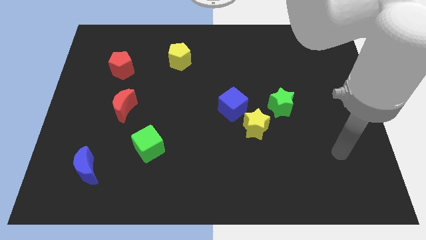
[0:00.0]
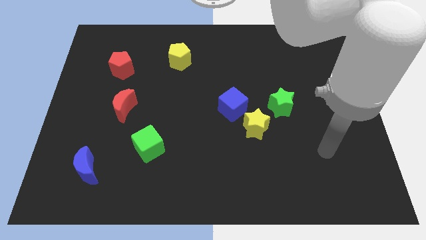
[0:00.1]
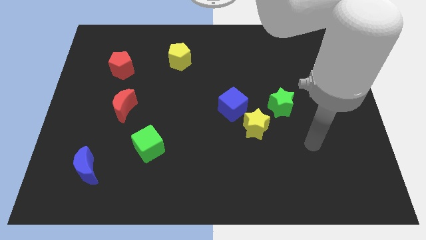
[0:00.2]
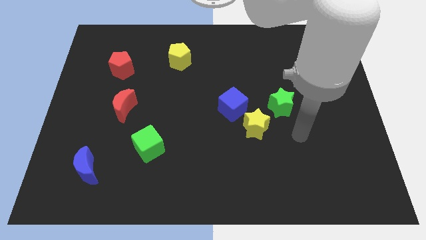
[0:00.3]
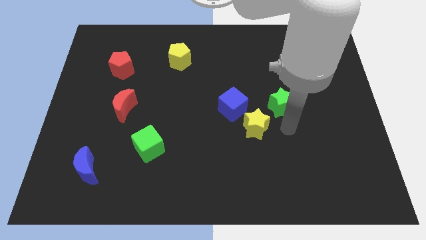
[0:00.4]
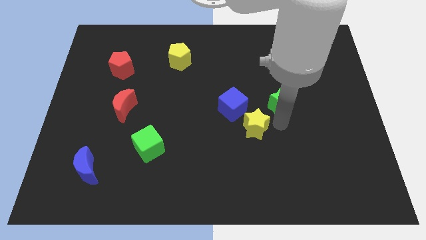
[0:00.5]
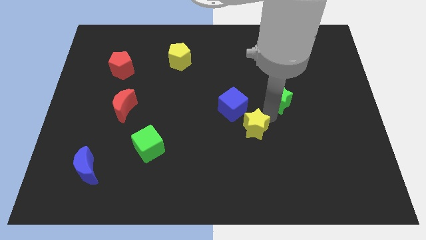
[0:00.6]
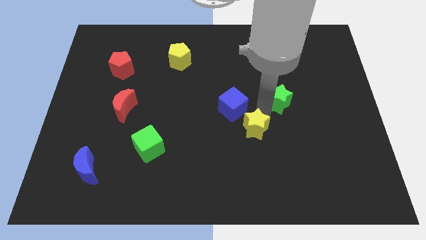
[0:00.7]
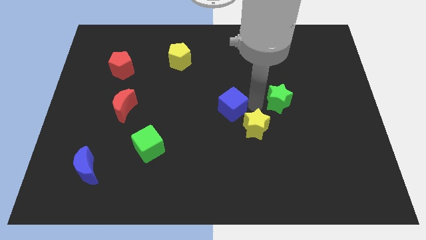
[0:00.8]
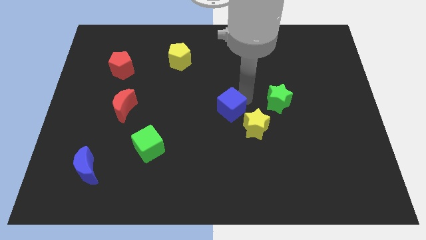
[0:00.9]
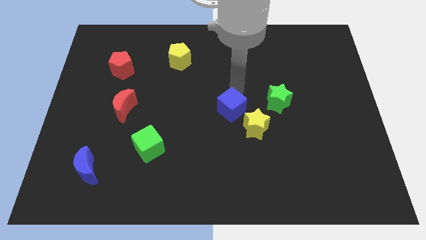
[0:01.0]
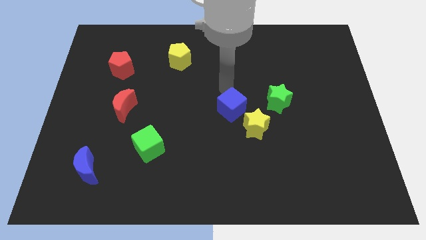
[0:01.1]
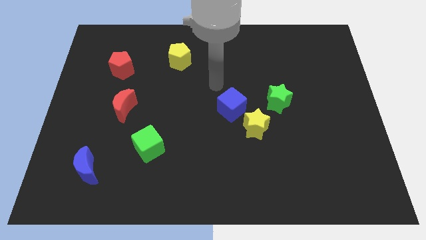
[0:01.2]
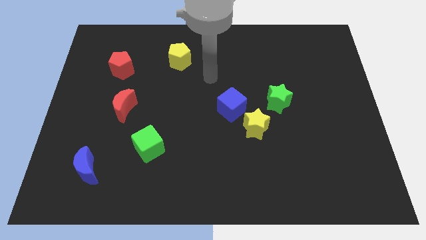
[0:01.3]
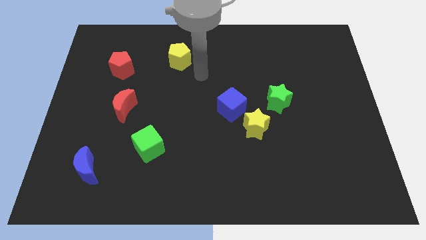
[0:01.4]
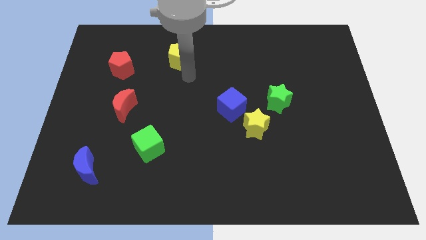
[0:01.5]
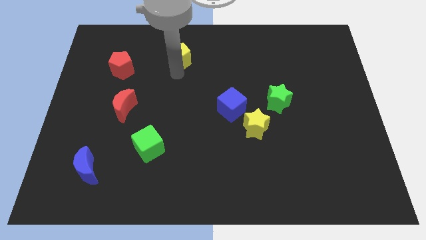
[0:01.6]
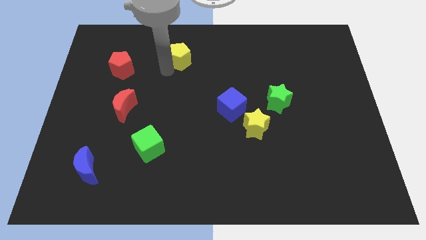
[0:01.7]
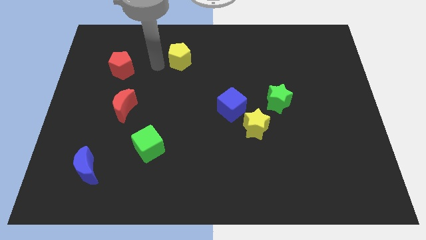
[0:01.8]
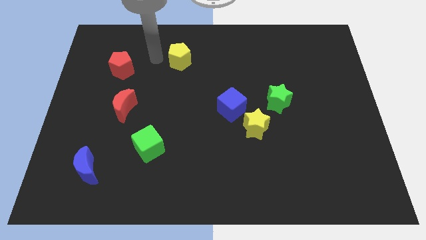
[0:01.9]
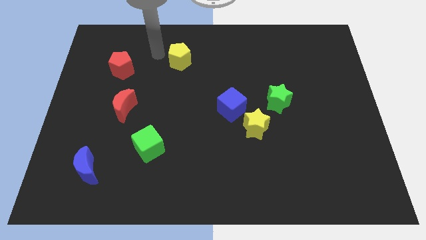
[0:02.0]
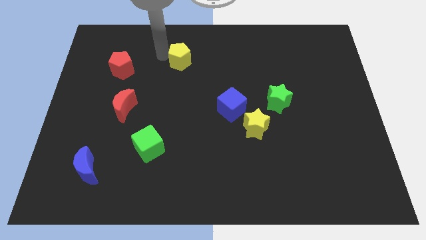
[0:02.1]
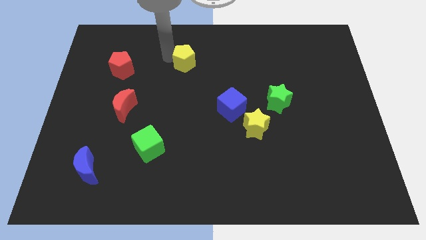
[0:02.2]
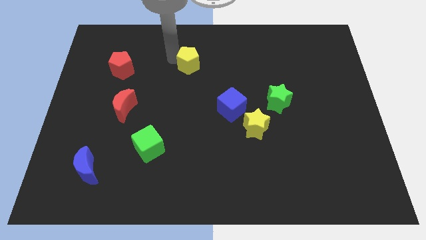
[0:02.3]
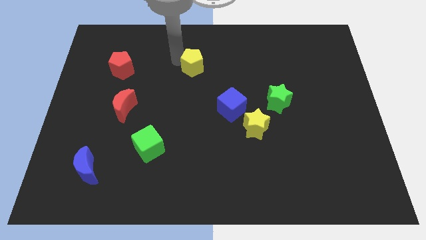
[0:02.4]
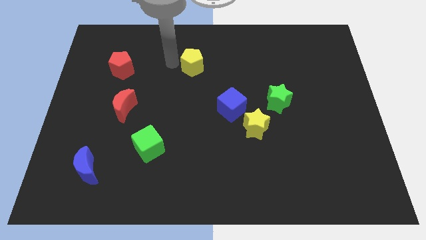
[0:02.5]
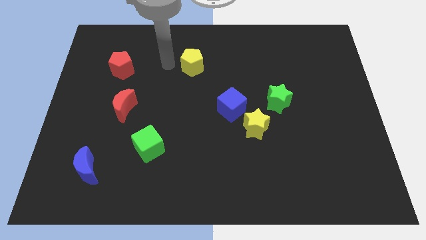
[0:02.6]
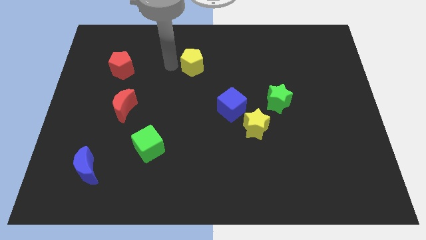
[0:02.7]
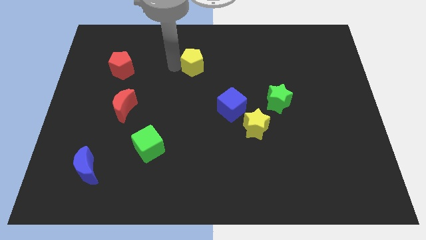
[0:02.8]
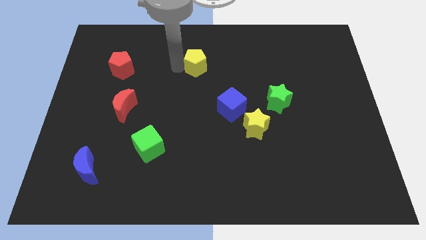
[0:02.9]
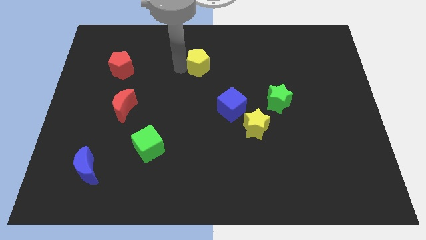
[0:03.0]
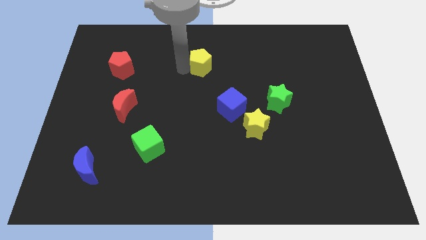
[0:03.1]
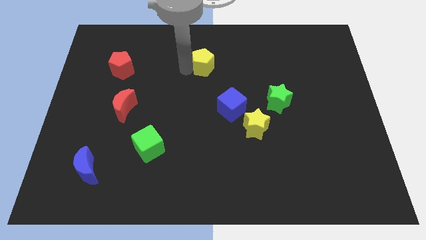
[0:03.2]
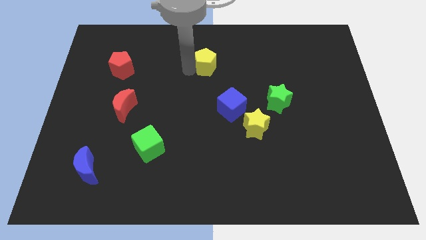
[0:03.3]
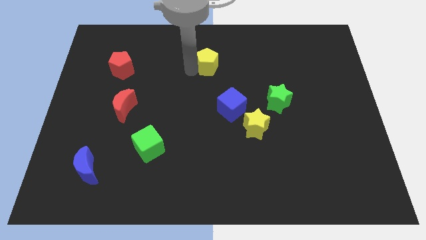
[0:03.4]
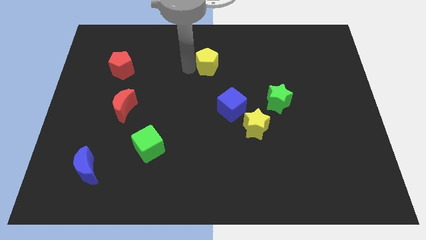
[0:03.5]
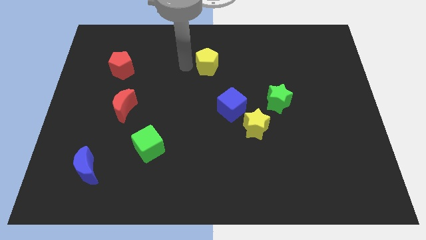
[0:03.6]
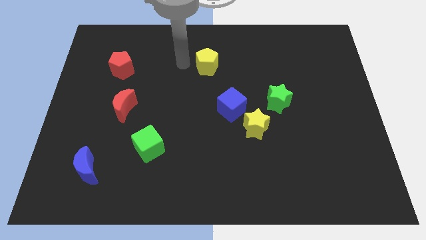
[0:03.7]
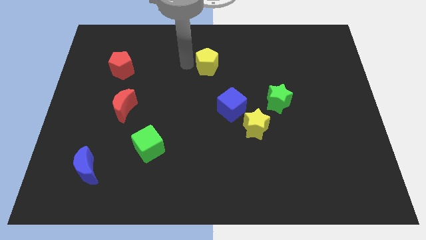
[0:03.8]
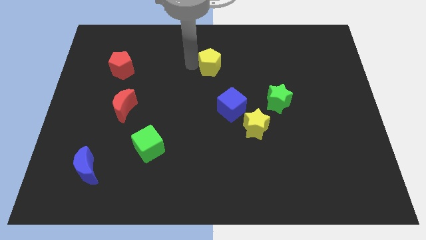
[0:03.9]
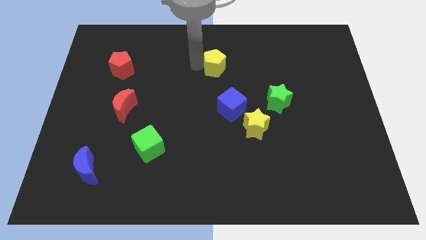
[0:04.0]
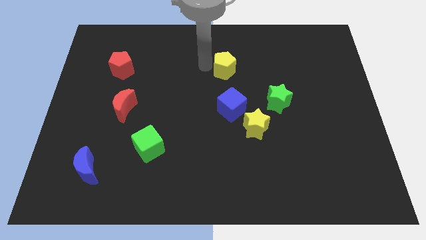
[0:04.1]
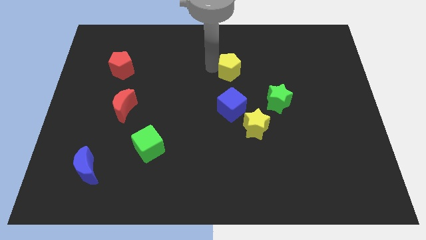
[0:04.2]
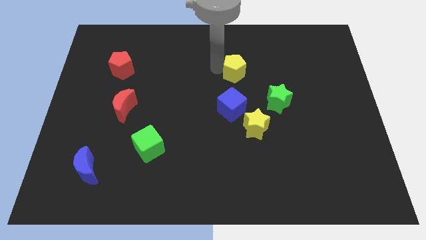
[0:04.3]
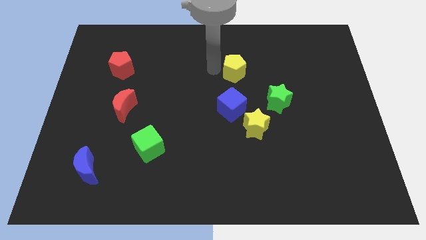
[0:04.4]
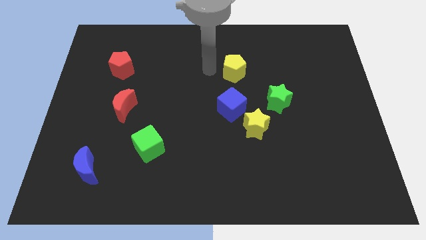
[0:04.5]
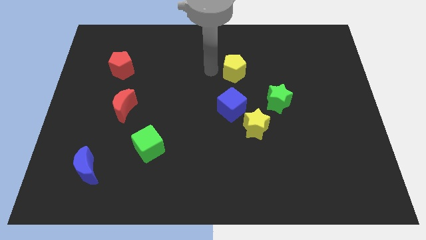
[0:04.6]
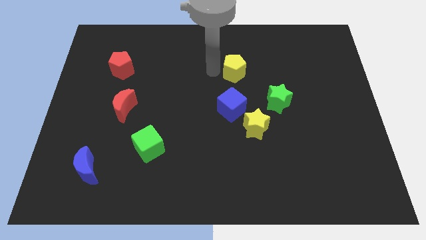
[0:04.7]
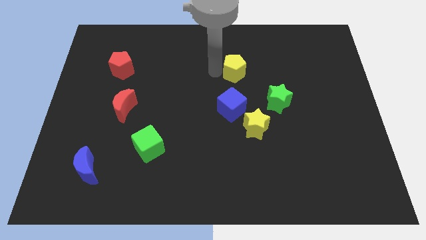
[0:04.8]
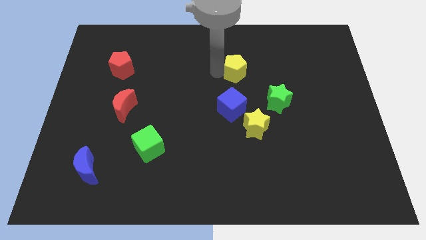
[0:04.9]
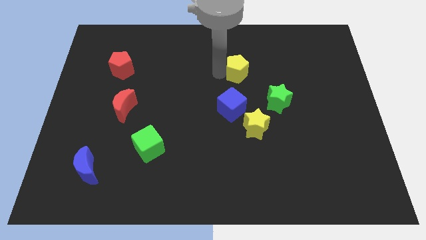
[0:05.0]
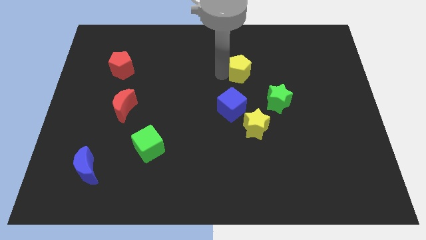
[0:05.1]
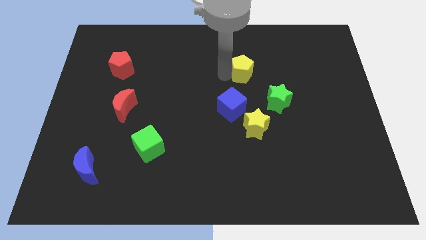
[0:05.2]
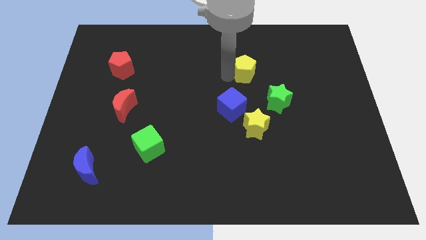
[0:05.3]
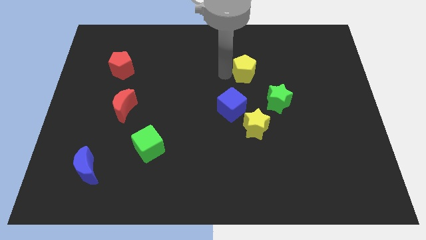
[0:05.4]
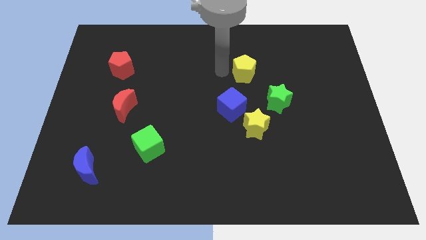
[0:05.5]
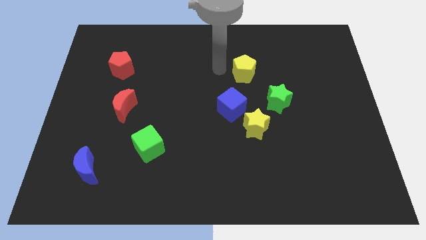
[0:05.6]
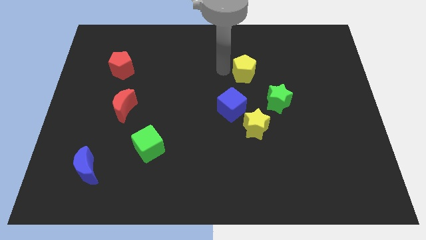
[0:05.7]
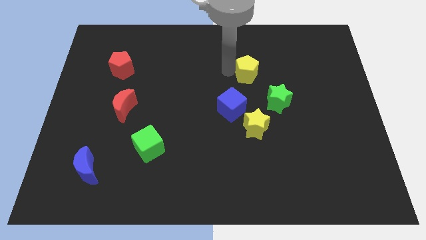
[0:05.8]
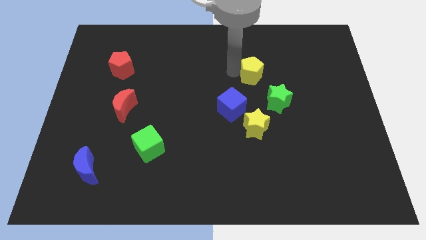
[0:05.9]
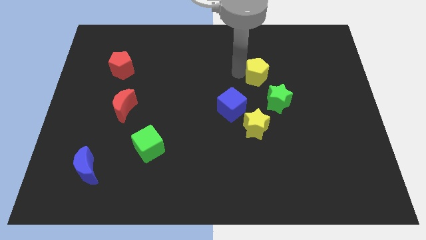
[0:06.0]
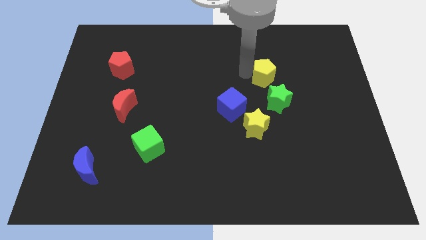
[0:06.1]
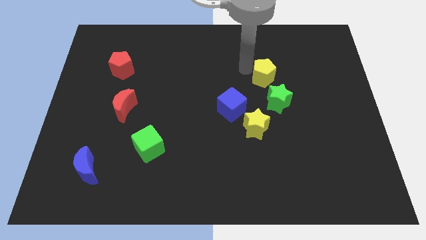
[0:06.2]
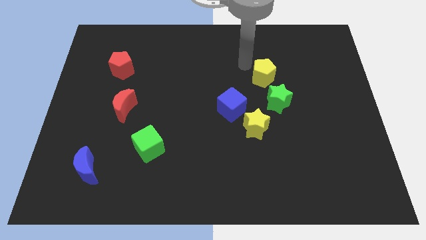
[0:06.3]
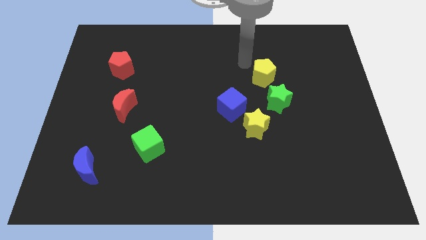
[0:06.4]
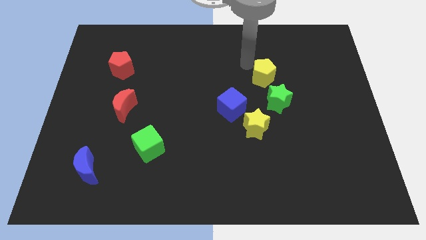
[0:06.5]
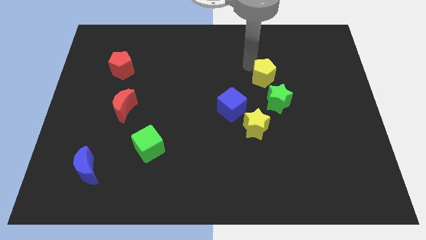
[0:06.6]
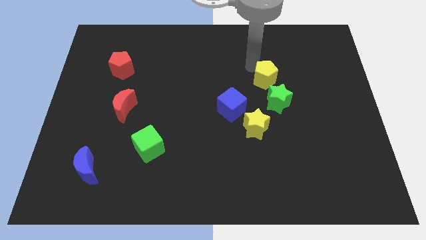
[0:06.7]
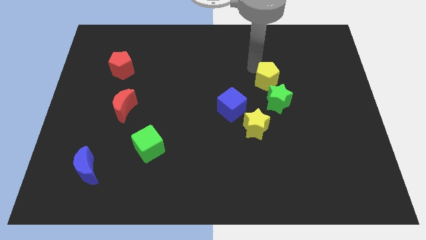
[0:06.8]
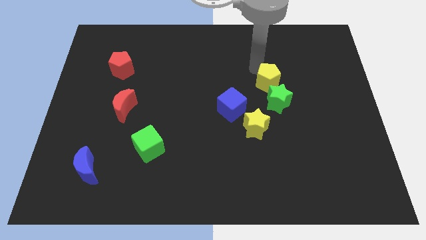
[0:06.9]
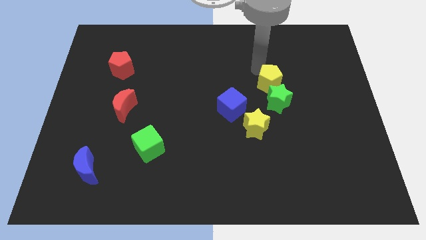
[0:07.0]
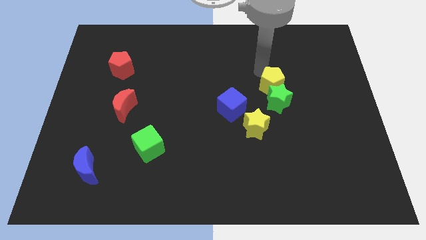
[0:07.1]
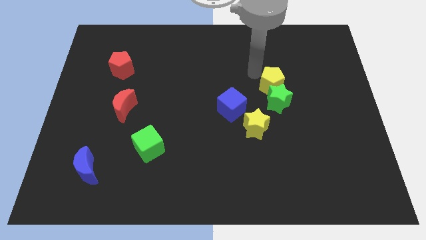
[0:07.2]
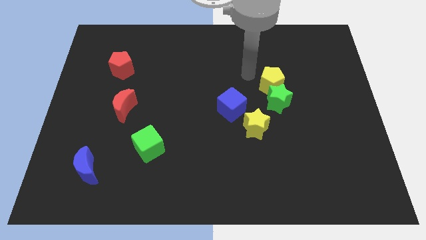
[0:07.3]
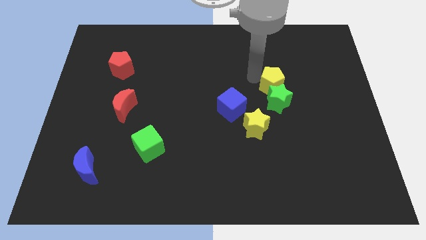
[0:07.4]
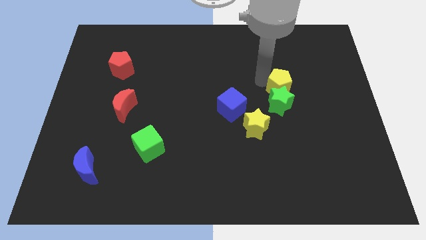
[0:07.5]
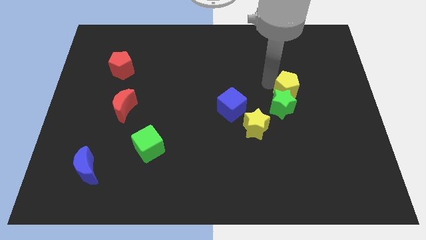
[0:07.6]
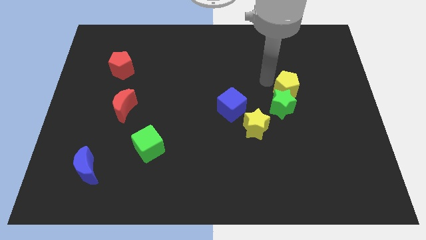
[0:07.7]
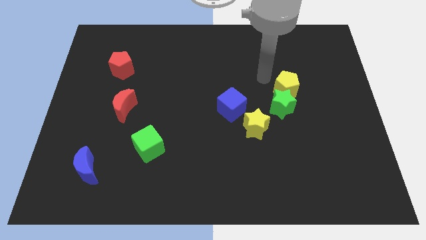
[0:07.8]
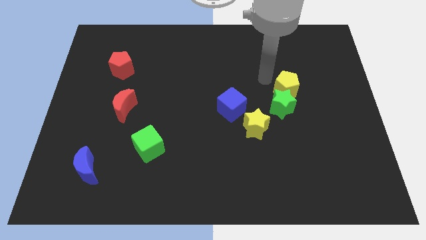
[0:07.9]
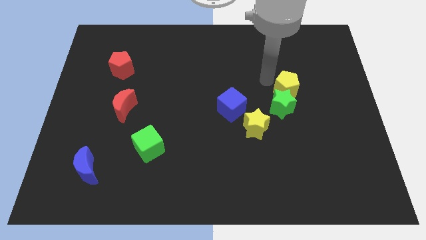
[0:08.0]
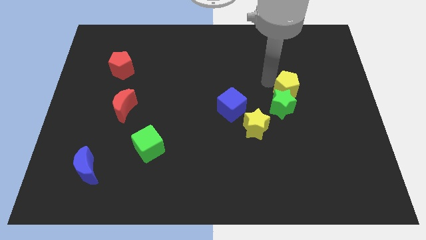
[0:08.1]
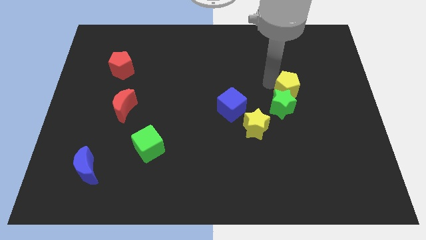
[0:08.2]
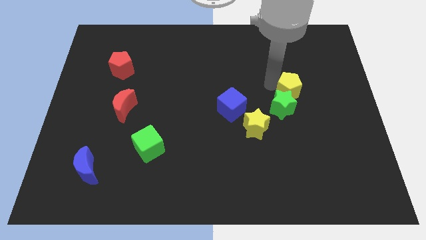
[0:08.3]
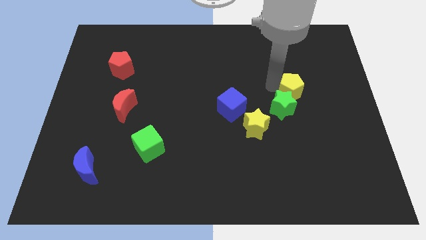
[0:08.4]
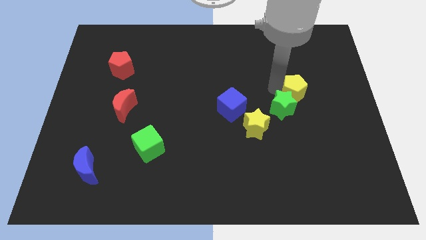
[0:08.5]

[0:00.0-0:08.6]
slide the yellow pentagon to the right side of the green star
